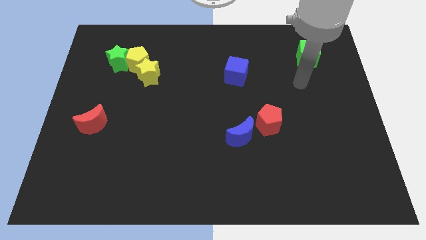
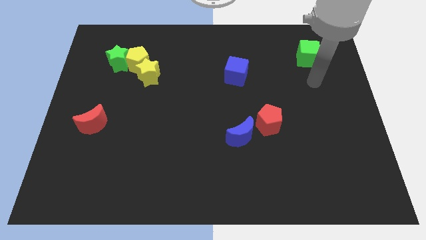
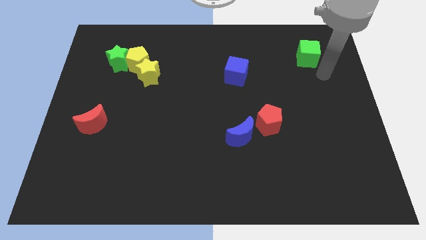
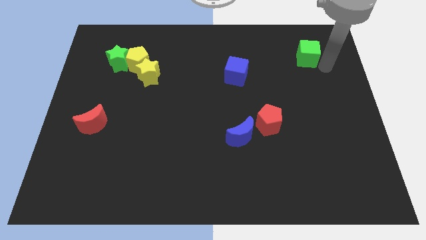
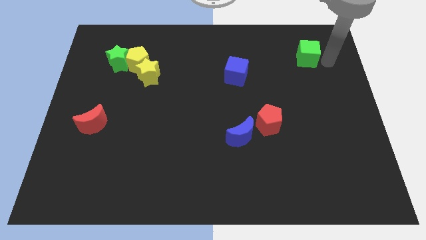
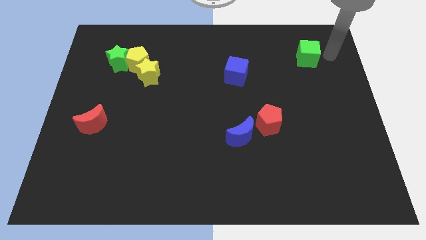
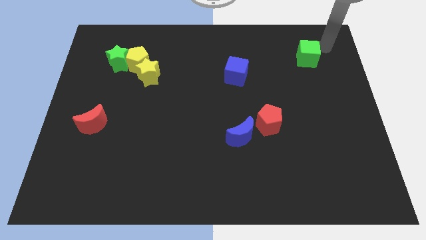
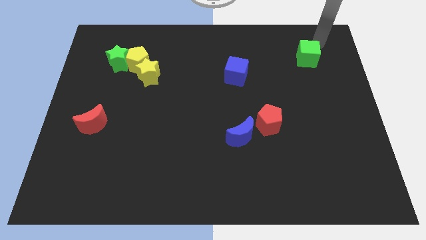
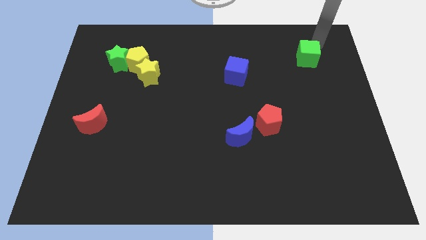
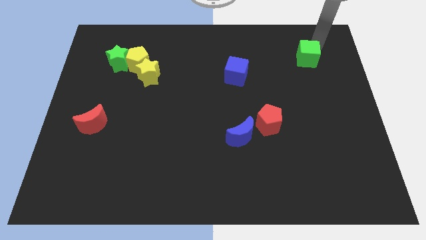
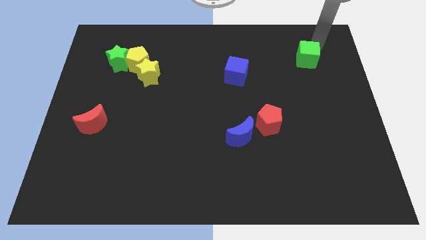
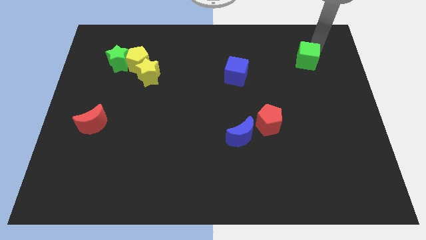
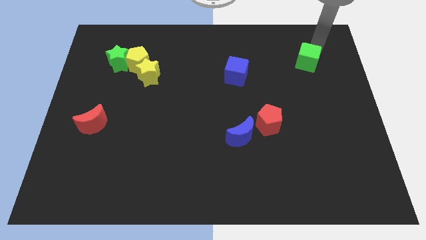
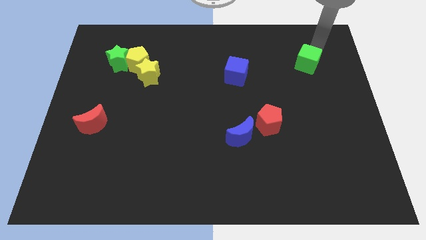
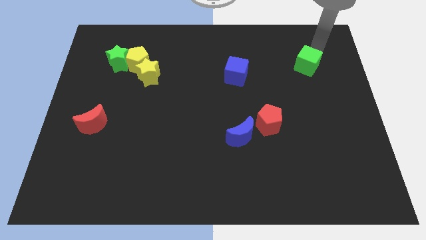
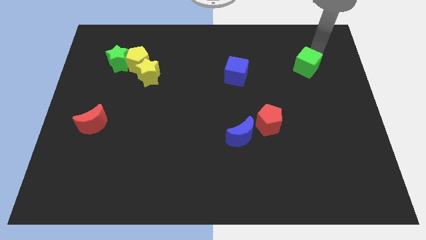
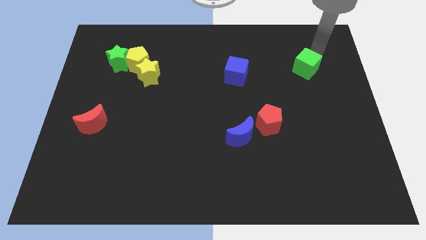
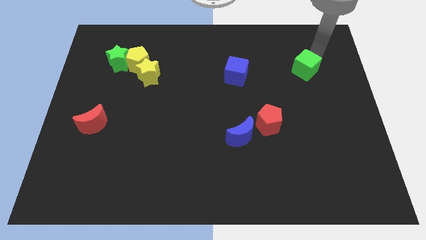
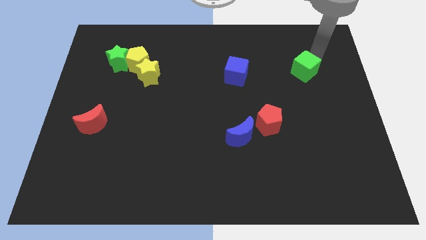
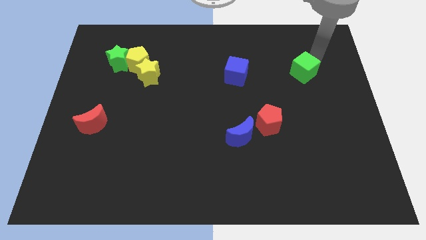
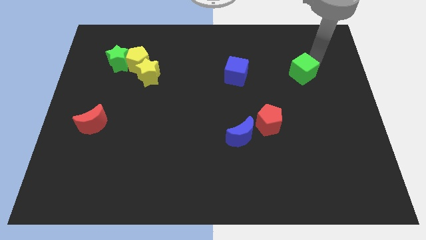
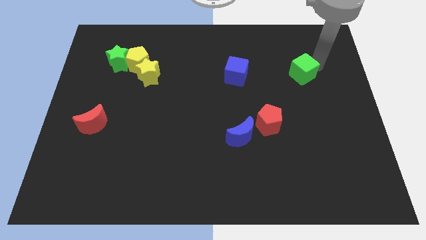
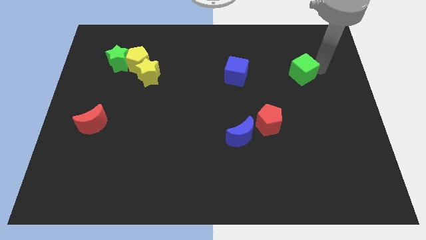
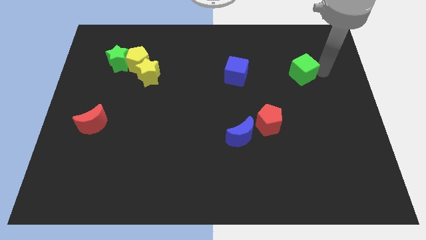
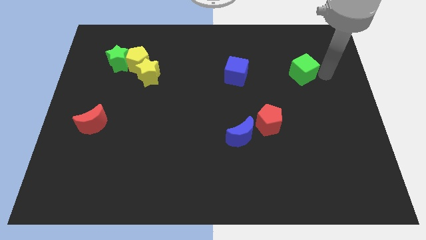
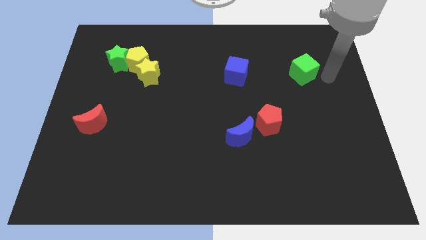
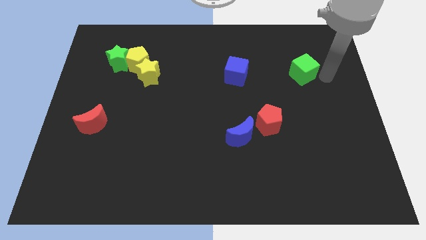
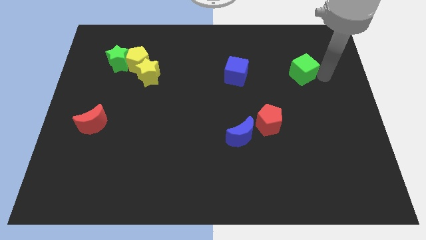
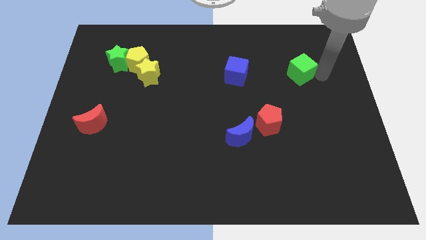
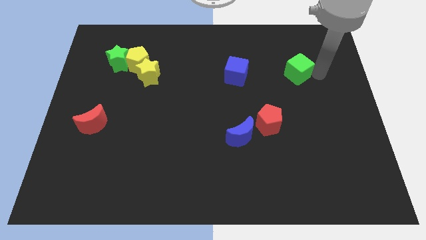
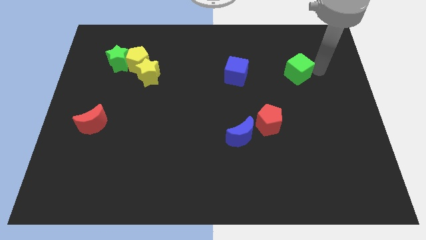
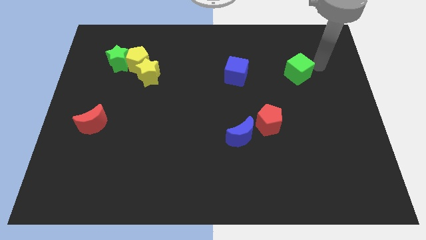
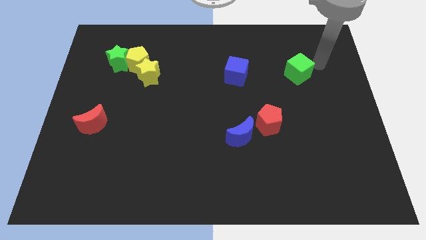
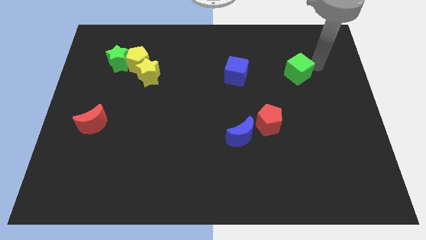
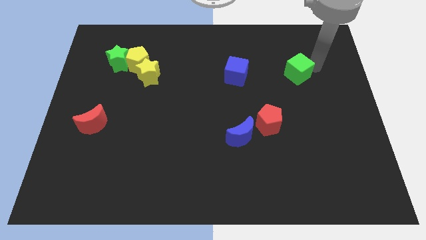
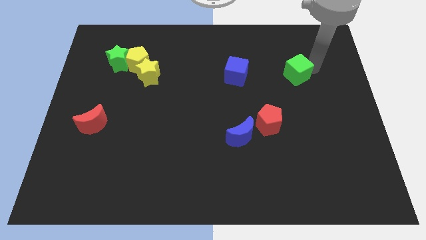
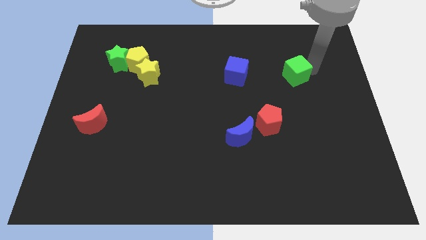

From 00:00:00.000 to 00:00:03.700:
move the green cube a little bit downwards and left

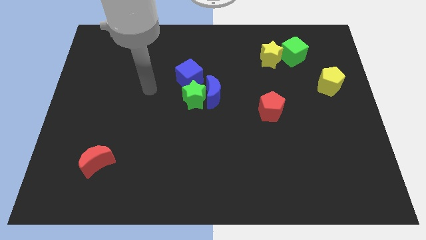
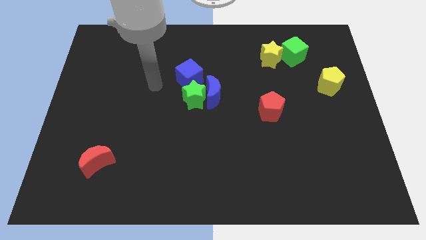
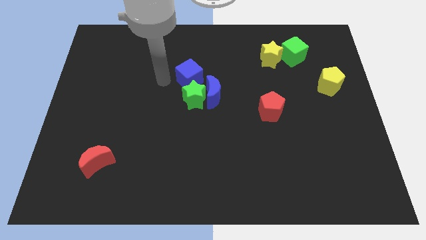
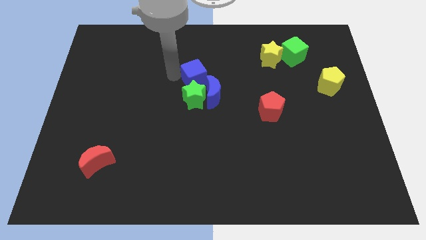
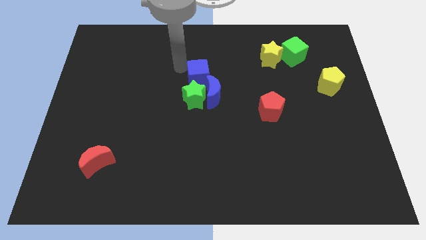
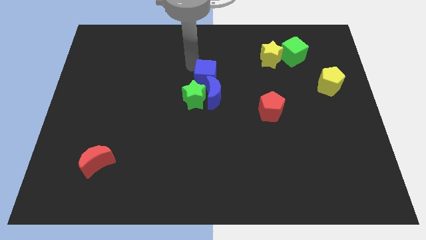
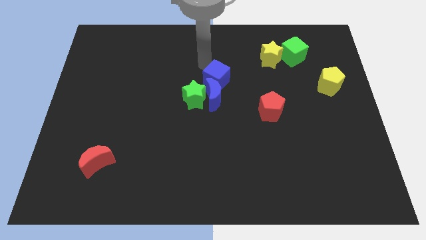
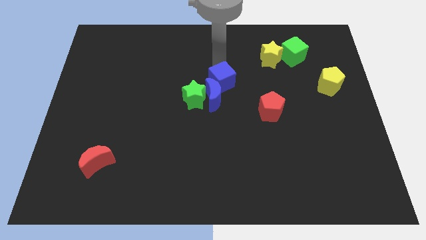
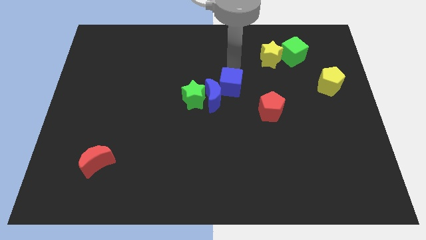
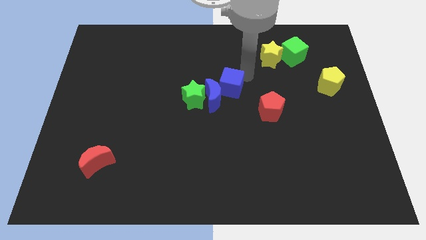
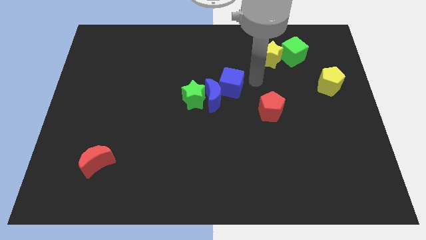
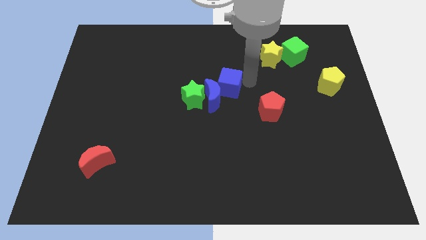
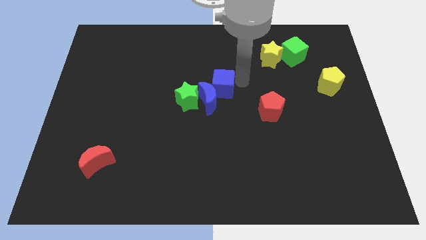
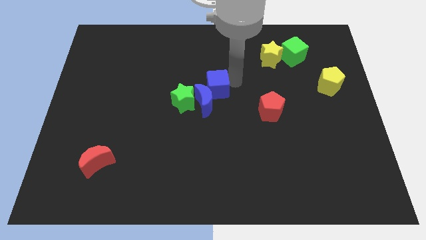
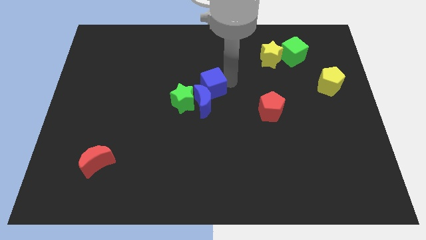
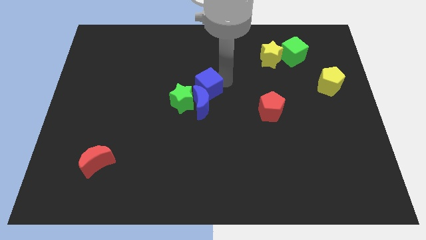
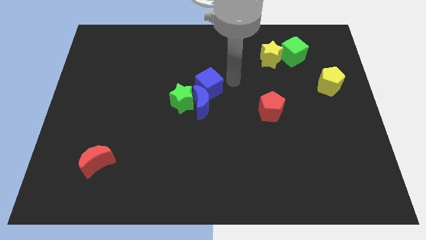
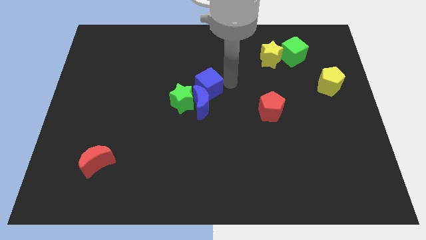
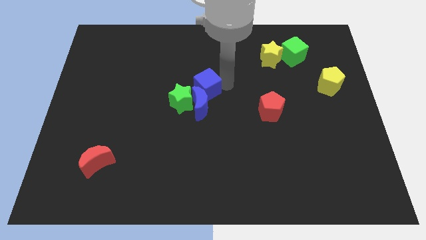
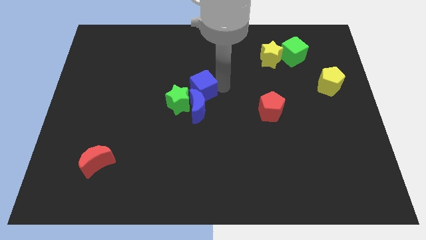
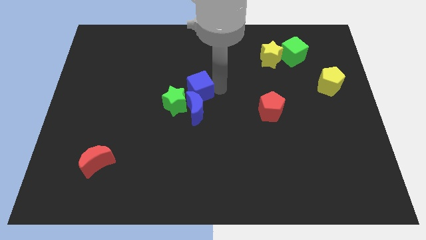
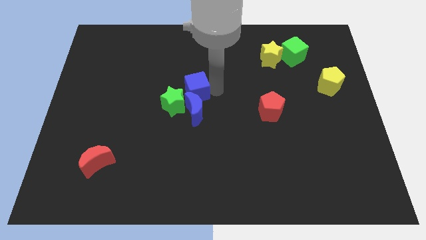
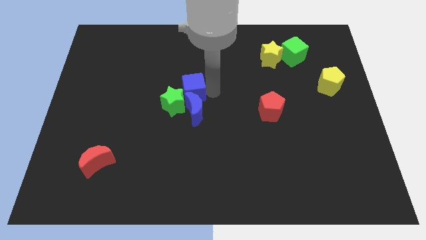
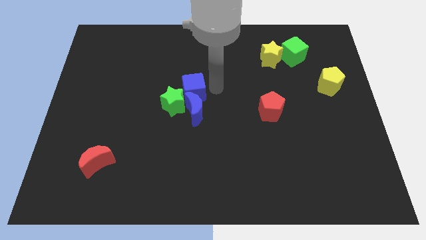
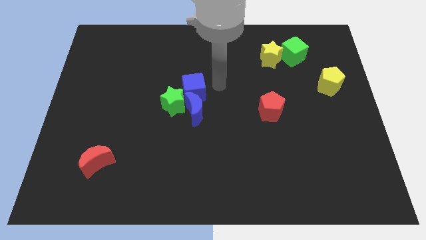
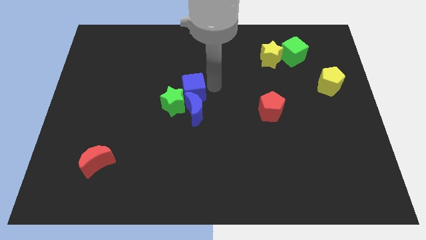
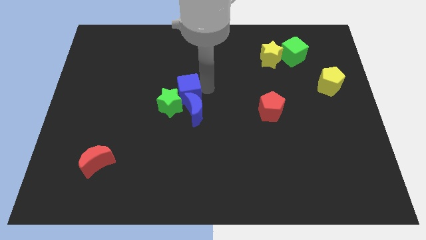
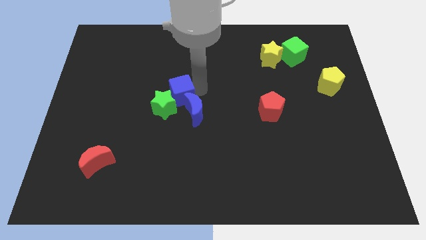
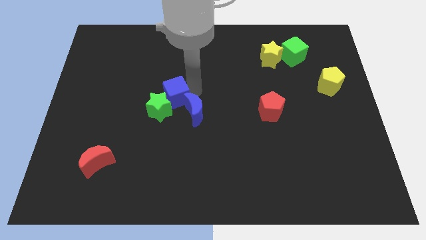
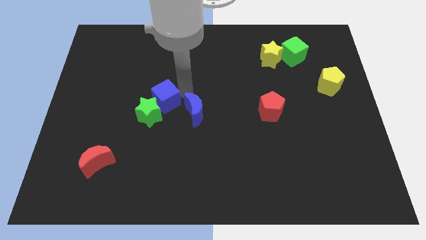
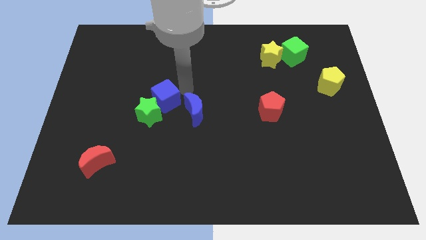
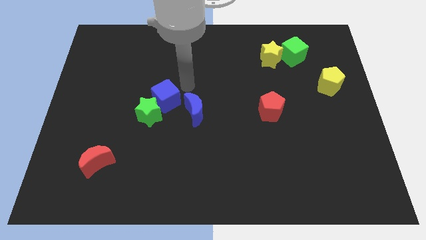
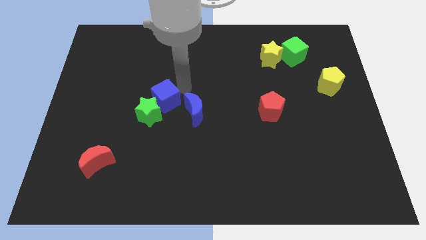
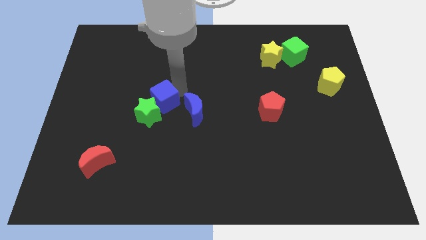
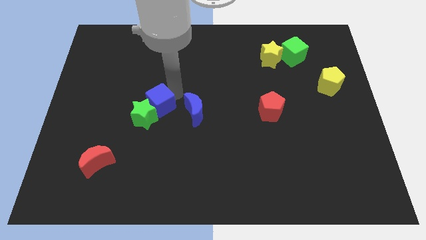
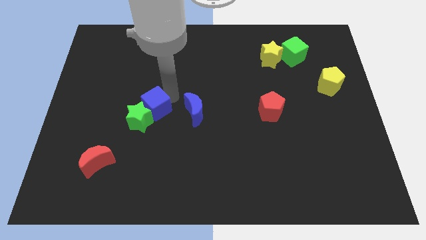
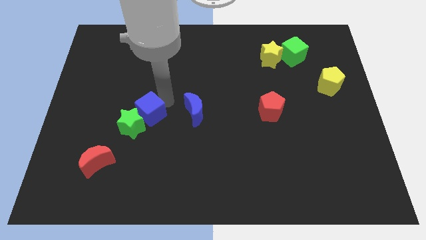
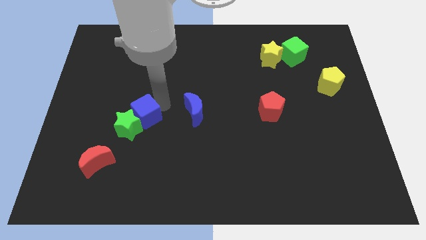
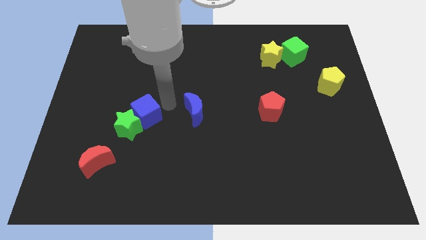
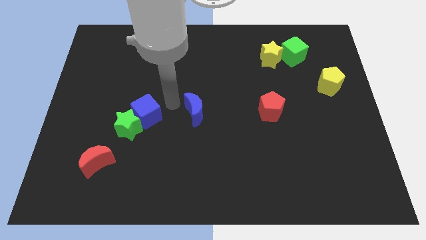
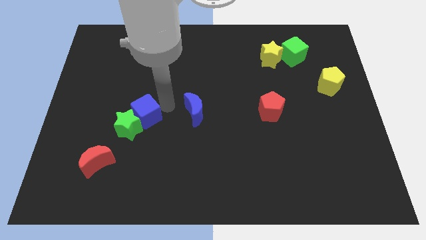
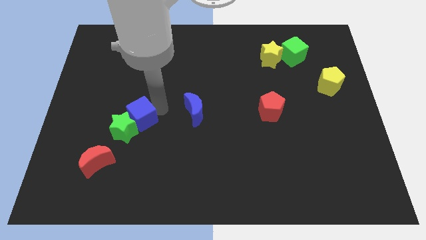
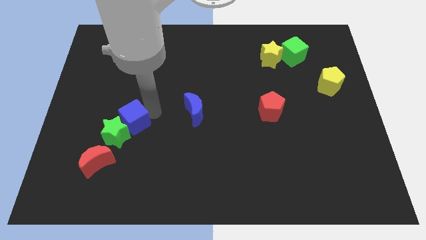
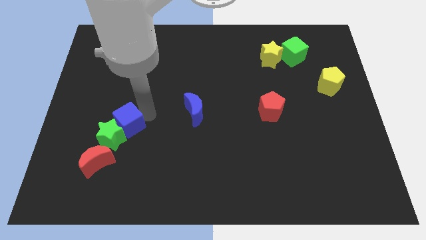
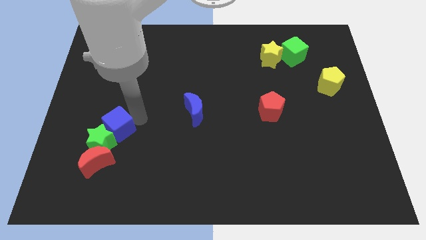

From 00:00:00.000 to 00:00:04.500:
push the blue cube down and then left
